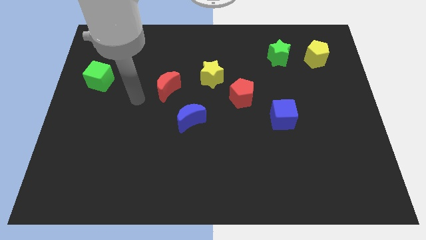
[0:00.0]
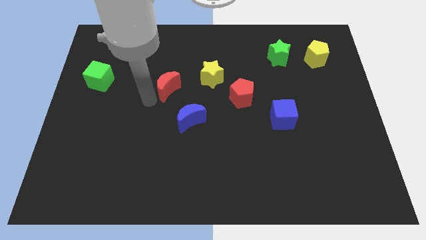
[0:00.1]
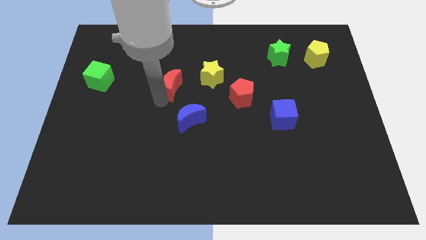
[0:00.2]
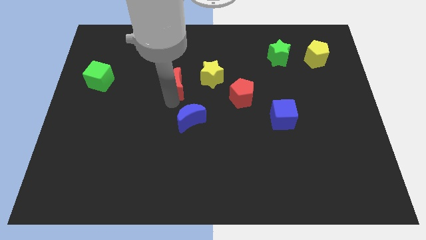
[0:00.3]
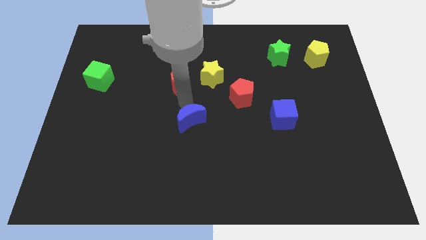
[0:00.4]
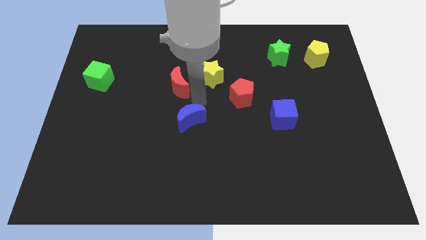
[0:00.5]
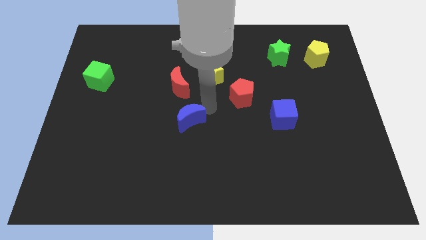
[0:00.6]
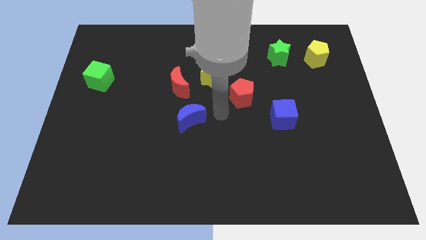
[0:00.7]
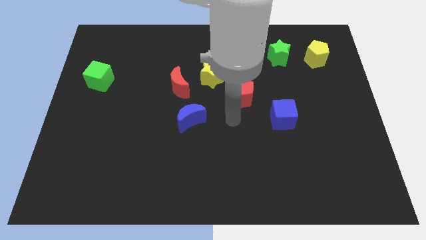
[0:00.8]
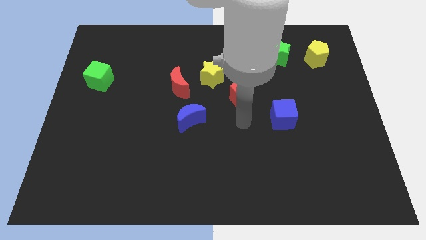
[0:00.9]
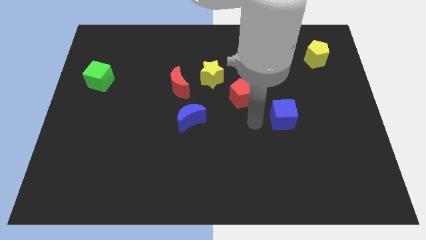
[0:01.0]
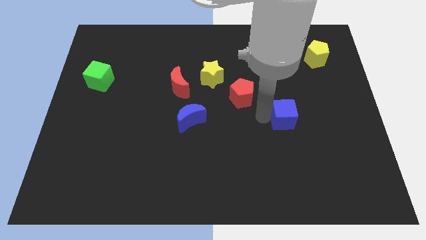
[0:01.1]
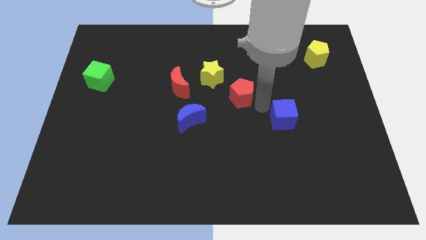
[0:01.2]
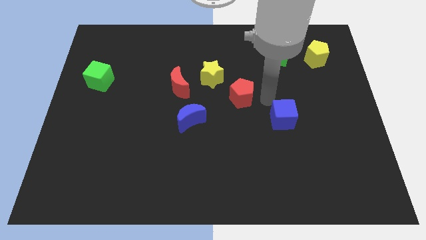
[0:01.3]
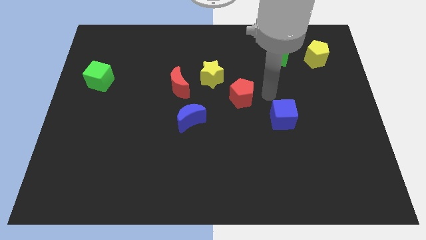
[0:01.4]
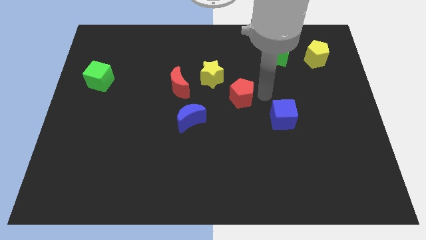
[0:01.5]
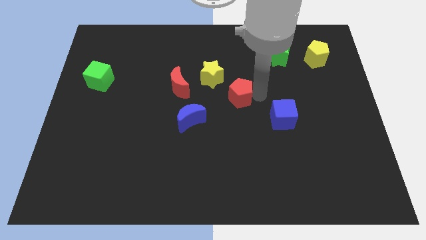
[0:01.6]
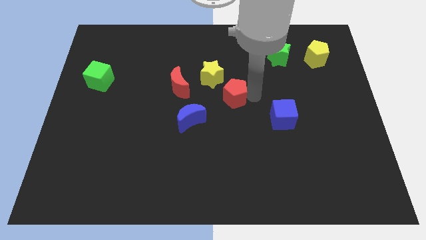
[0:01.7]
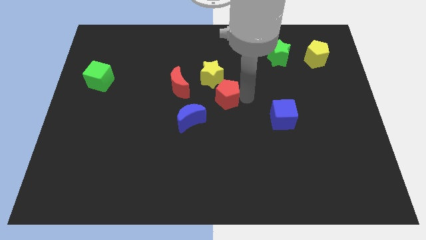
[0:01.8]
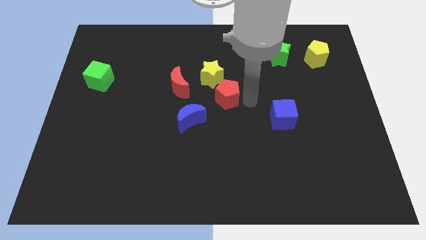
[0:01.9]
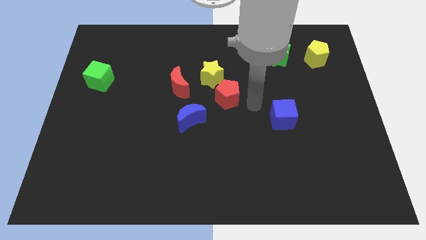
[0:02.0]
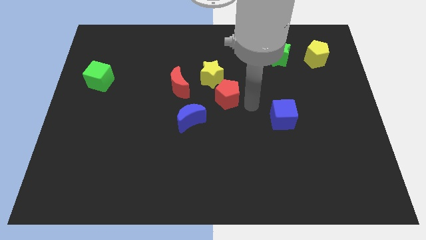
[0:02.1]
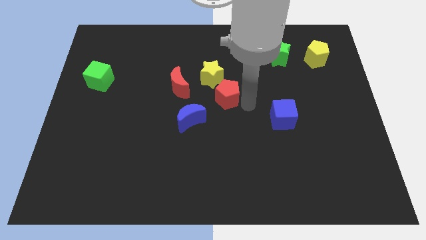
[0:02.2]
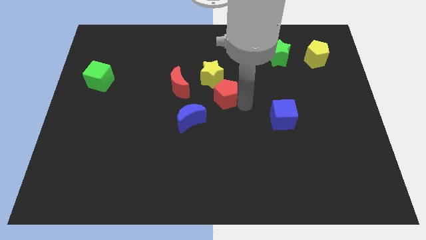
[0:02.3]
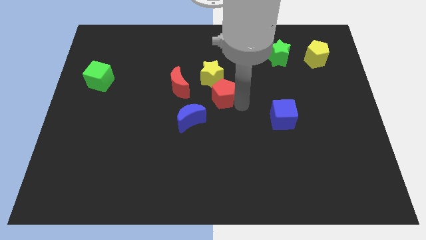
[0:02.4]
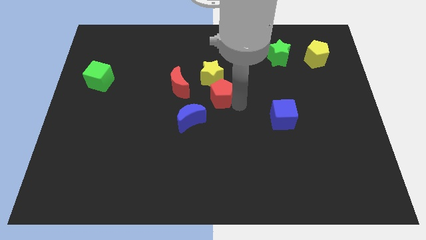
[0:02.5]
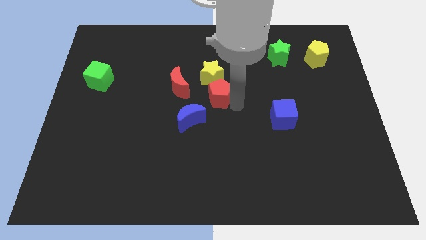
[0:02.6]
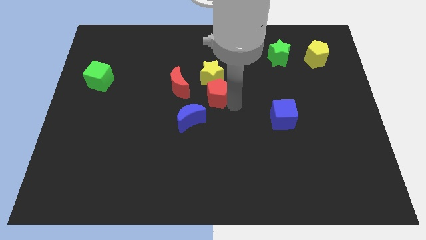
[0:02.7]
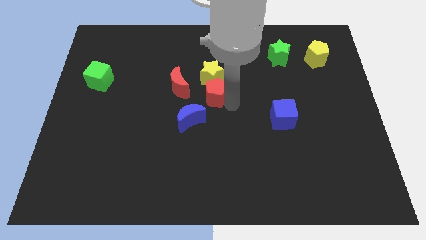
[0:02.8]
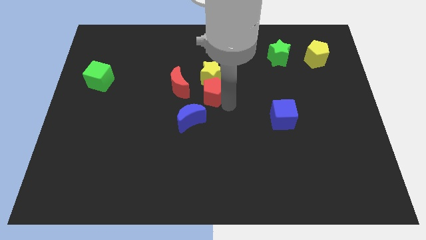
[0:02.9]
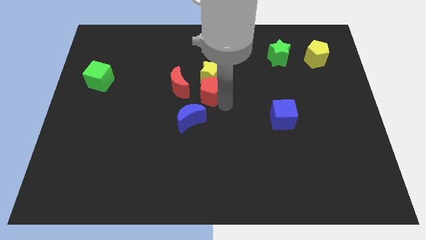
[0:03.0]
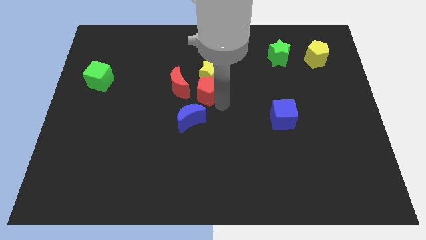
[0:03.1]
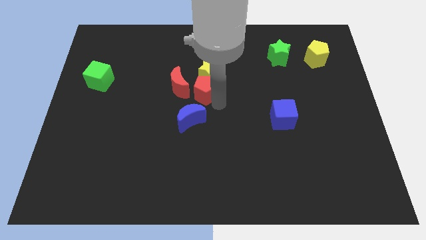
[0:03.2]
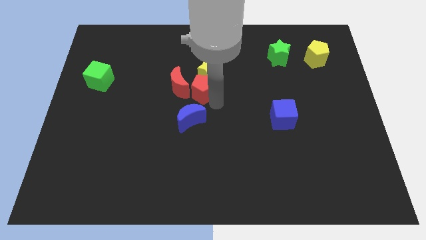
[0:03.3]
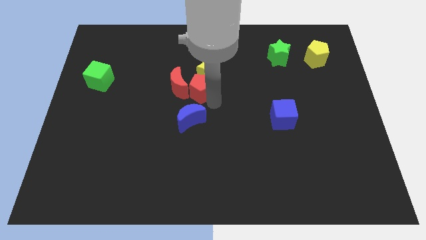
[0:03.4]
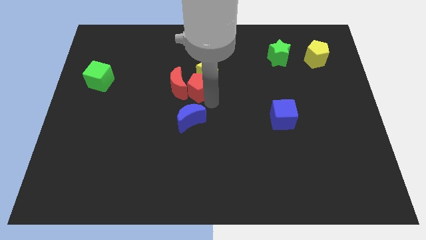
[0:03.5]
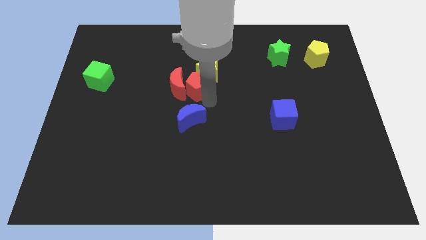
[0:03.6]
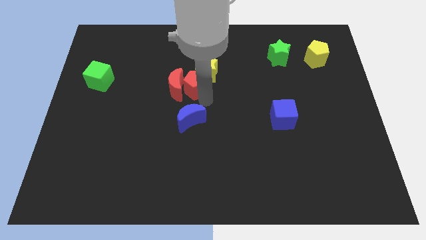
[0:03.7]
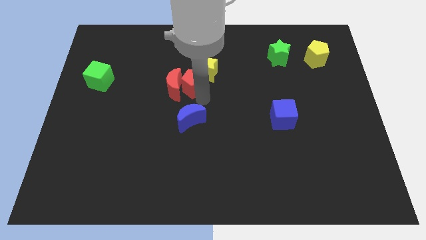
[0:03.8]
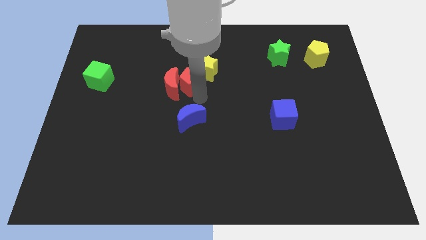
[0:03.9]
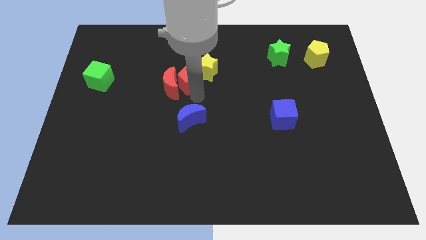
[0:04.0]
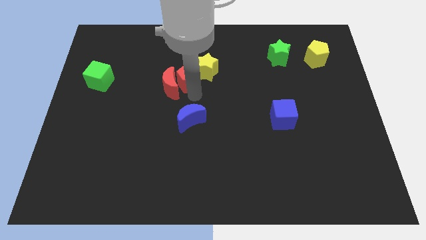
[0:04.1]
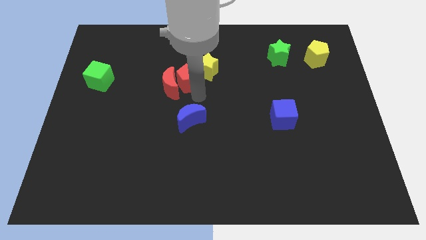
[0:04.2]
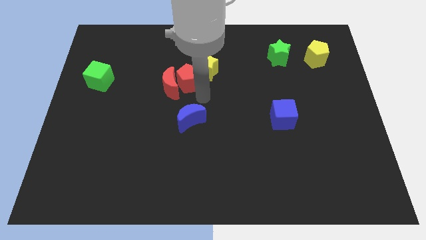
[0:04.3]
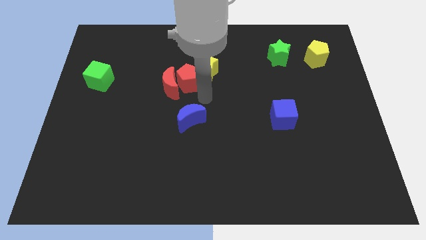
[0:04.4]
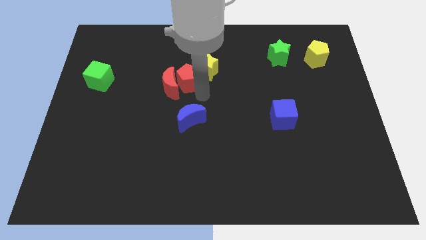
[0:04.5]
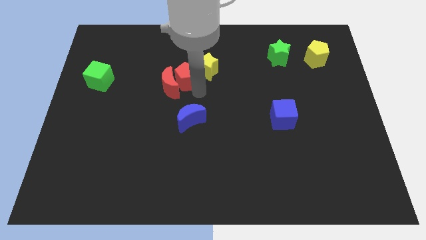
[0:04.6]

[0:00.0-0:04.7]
slide the red pentagon above the red moon

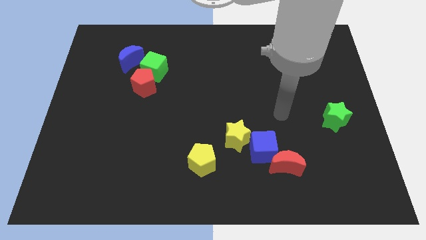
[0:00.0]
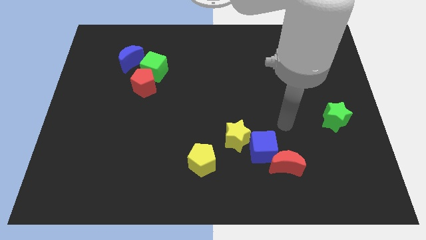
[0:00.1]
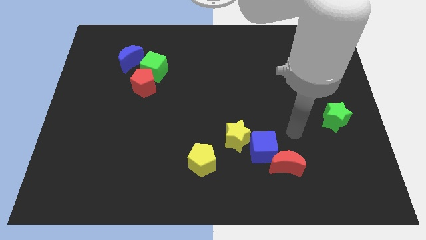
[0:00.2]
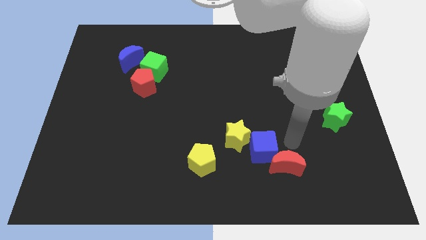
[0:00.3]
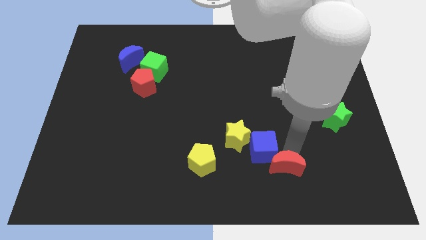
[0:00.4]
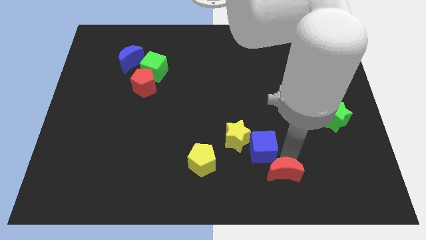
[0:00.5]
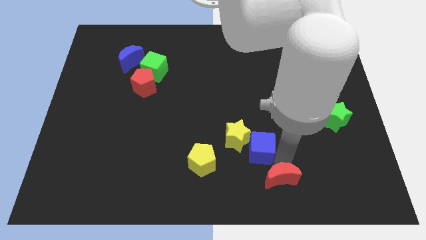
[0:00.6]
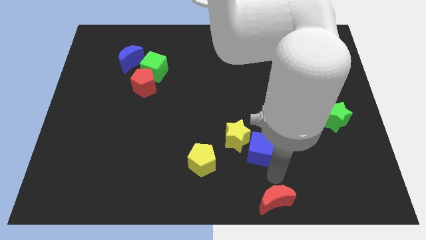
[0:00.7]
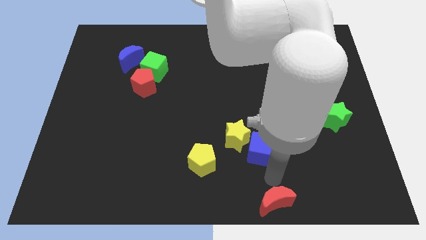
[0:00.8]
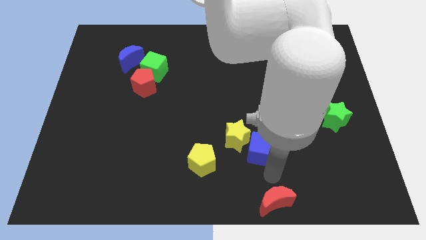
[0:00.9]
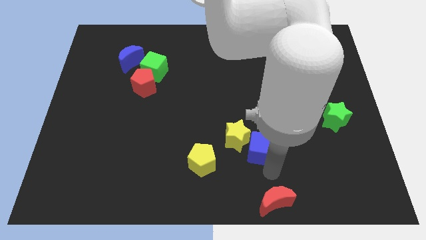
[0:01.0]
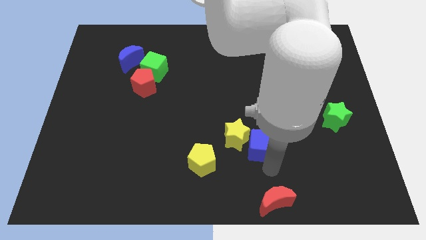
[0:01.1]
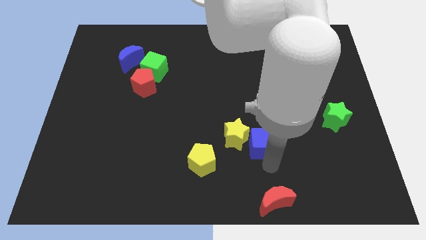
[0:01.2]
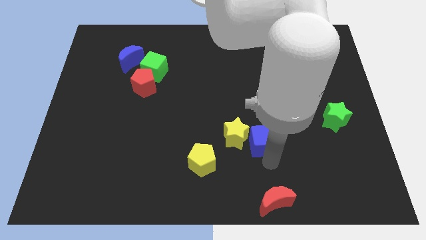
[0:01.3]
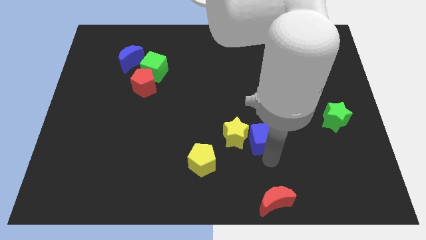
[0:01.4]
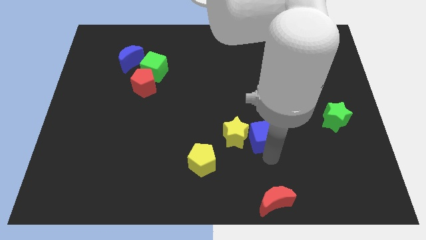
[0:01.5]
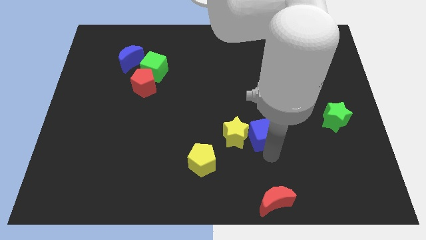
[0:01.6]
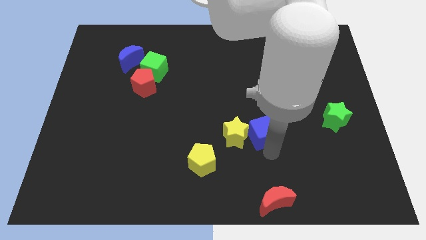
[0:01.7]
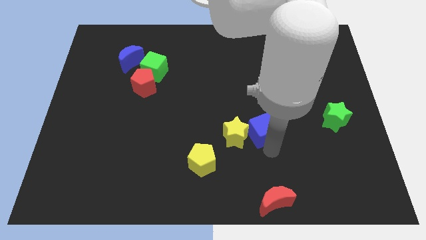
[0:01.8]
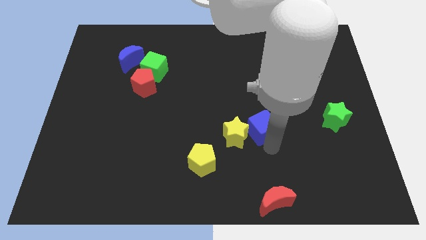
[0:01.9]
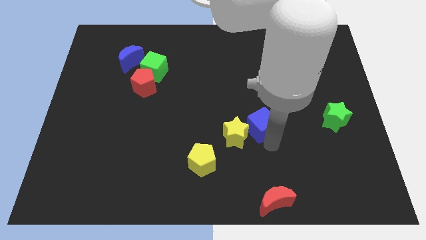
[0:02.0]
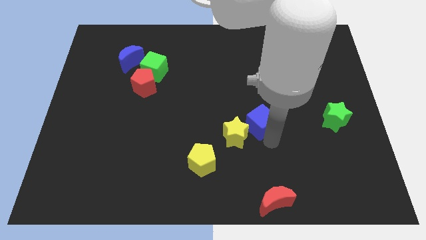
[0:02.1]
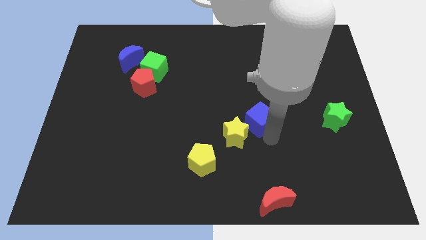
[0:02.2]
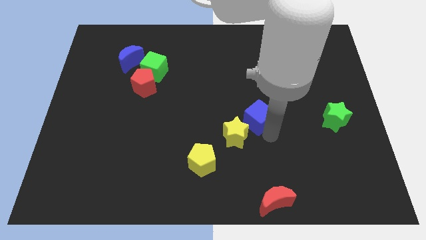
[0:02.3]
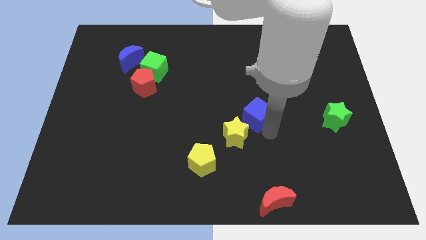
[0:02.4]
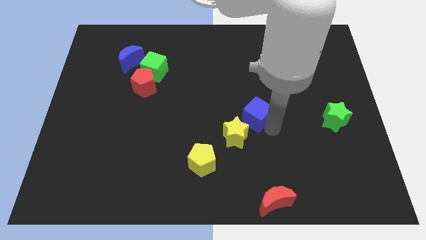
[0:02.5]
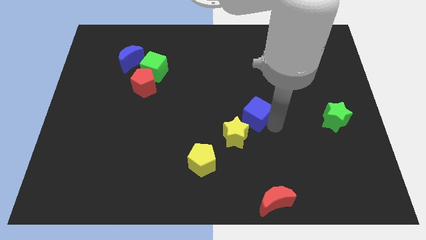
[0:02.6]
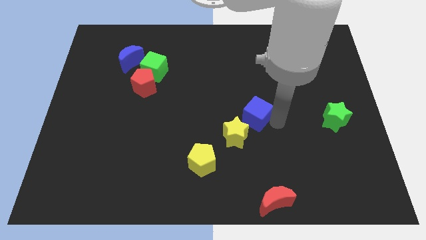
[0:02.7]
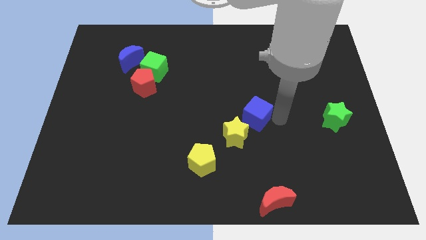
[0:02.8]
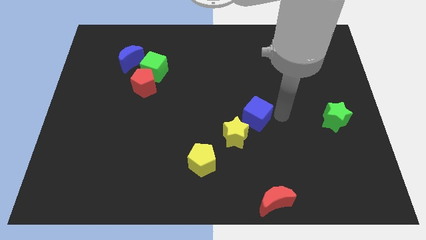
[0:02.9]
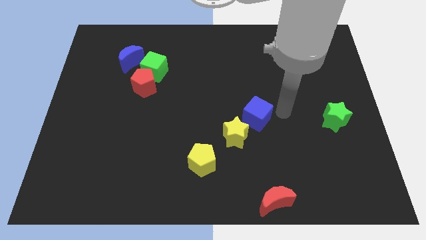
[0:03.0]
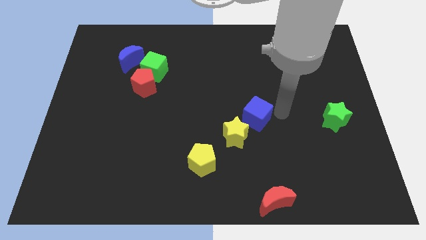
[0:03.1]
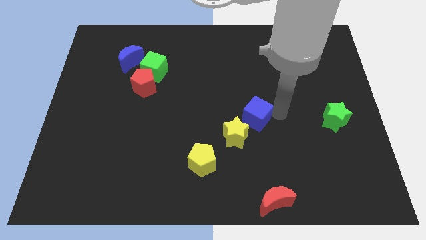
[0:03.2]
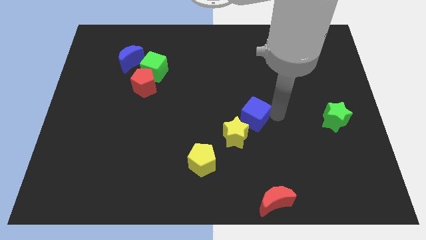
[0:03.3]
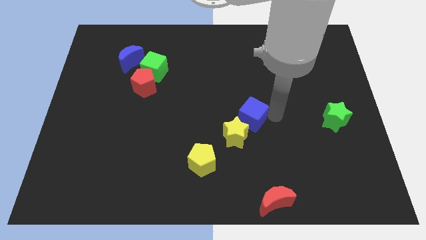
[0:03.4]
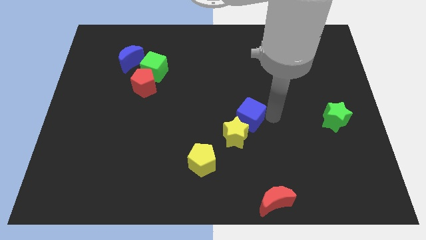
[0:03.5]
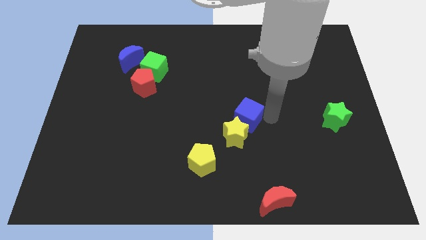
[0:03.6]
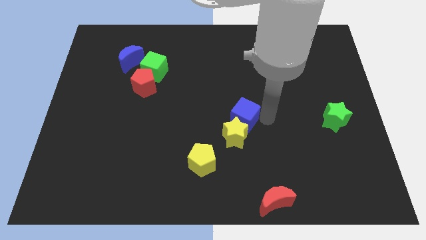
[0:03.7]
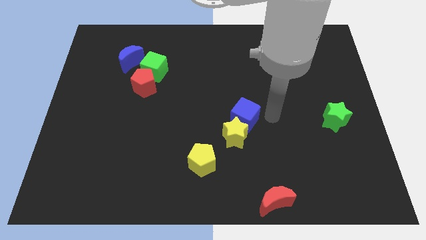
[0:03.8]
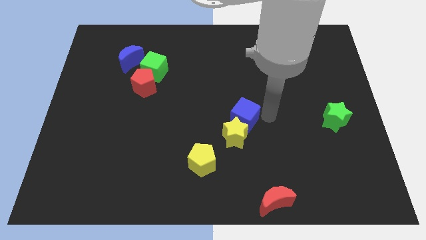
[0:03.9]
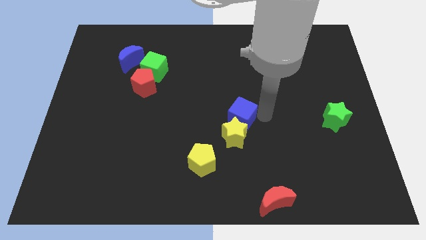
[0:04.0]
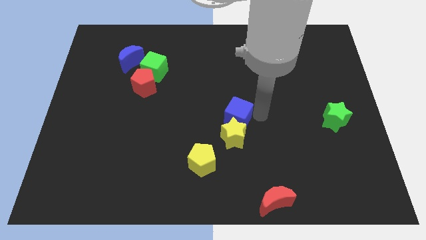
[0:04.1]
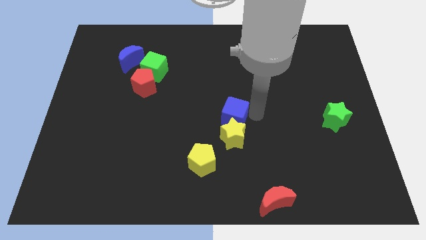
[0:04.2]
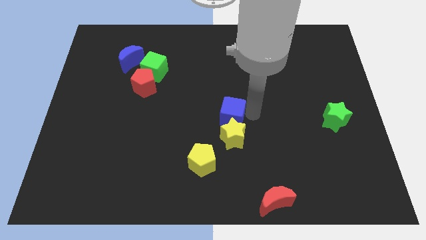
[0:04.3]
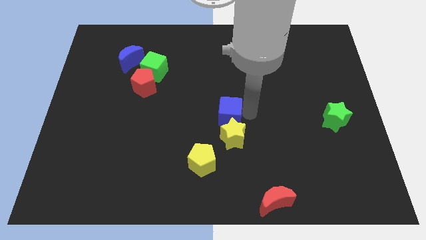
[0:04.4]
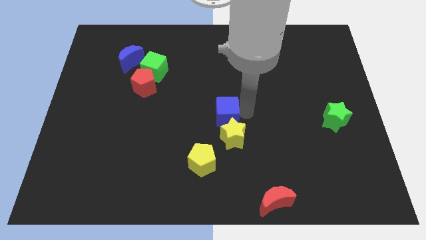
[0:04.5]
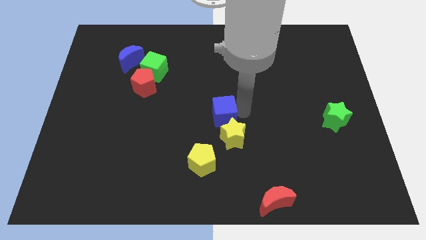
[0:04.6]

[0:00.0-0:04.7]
put the blue cube to the top of the yellow pentagon
